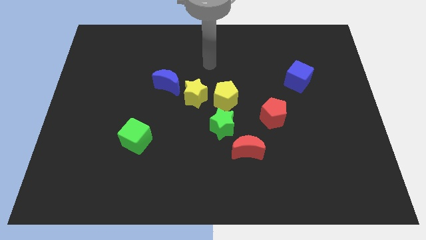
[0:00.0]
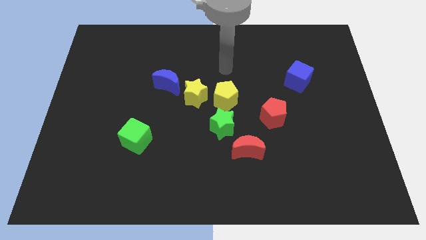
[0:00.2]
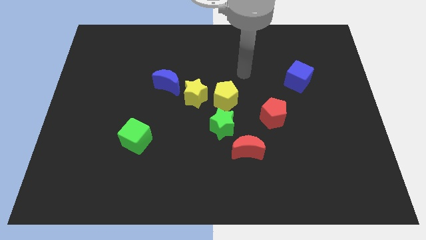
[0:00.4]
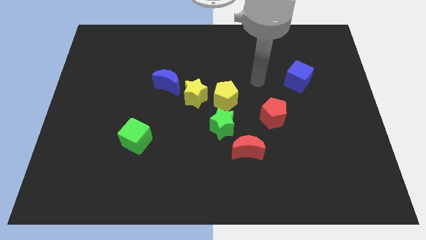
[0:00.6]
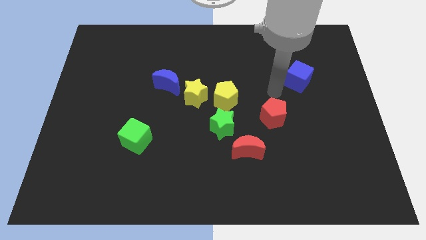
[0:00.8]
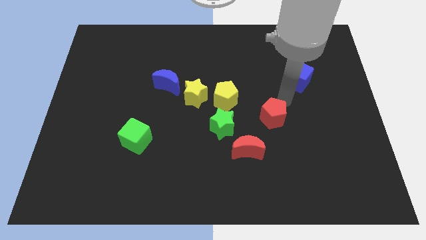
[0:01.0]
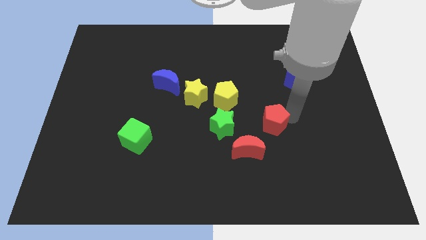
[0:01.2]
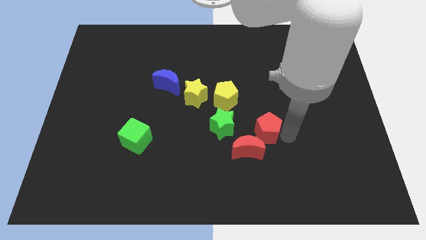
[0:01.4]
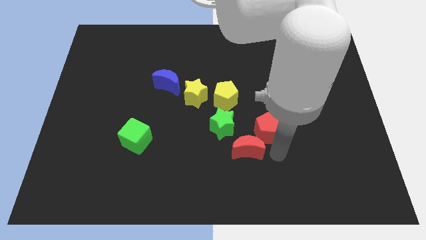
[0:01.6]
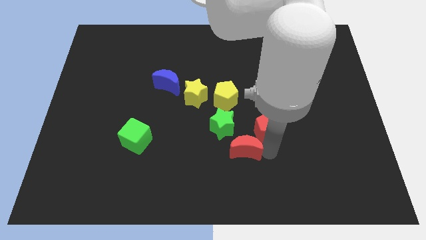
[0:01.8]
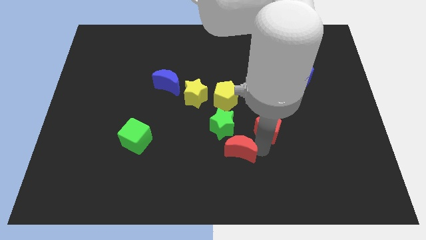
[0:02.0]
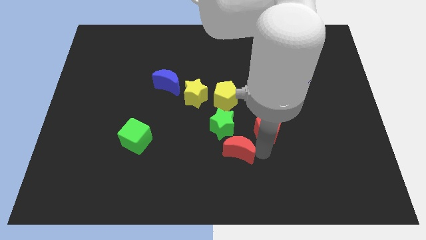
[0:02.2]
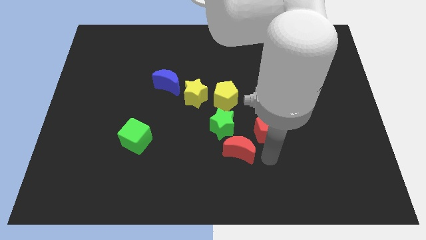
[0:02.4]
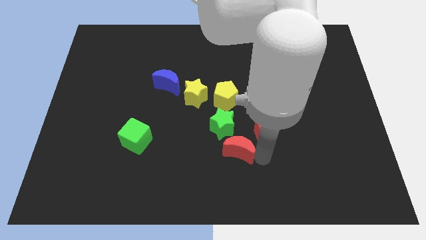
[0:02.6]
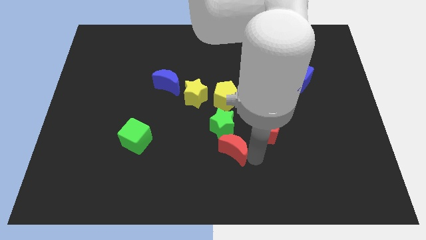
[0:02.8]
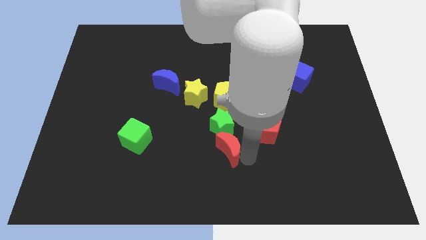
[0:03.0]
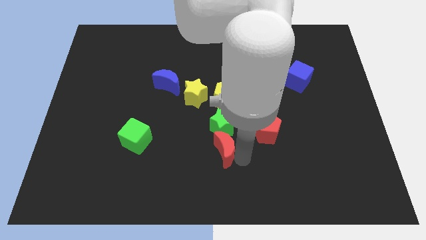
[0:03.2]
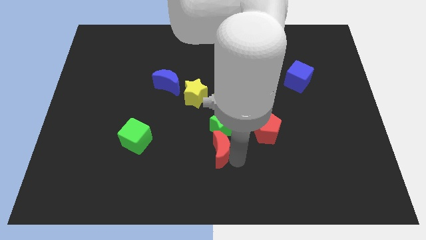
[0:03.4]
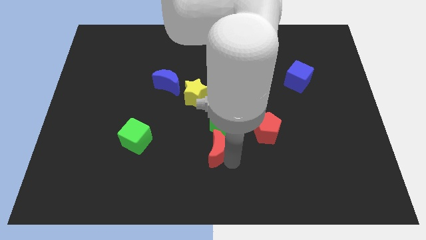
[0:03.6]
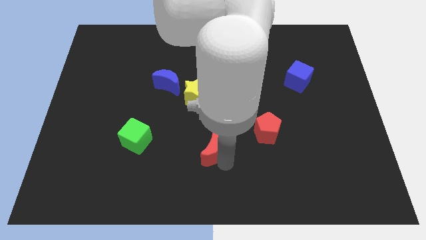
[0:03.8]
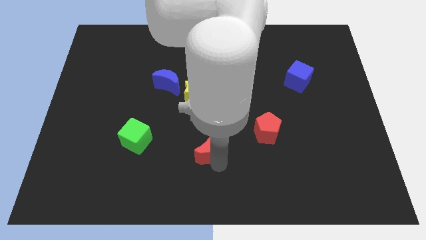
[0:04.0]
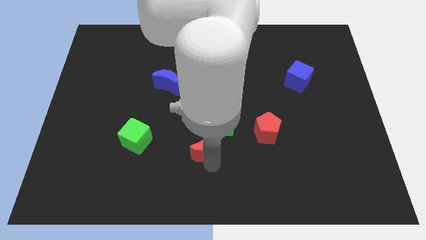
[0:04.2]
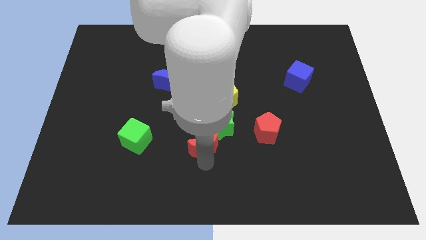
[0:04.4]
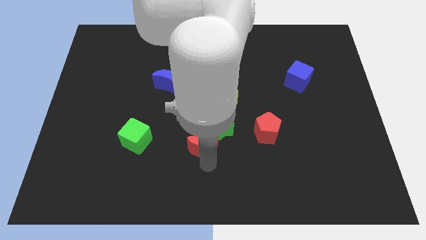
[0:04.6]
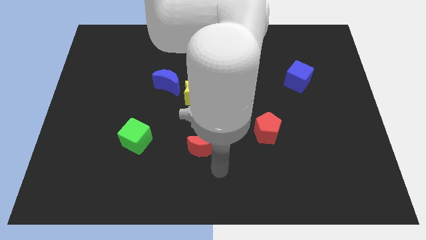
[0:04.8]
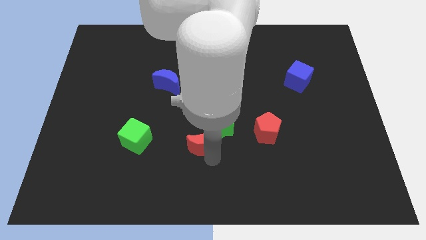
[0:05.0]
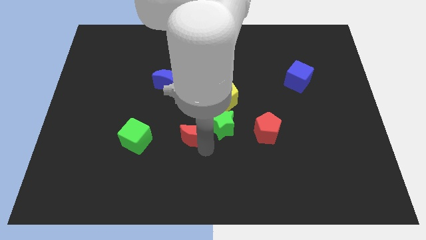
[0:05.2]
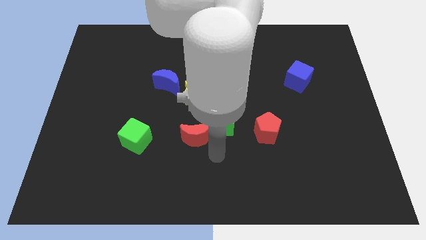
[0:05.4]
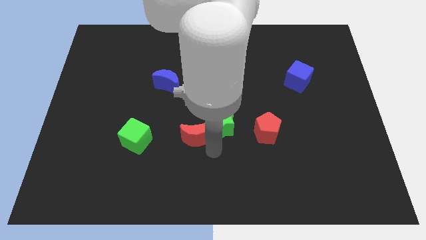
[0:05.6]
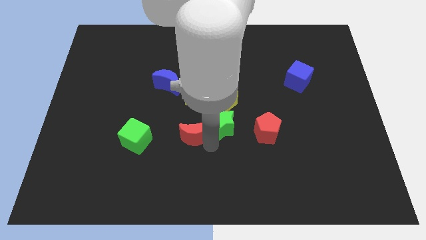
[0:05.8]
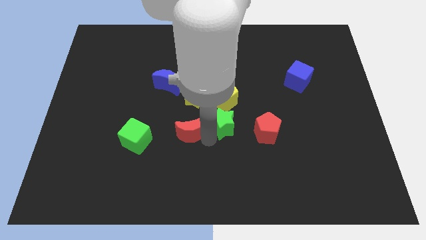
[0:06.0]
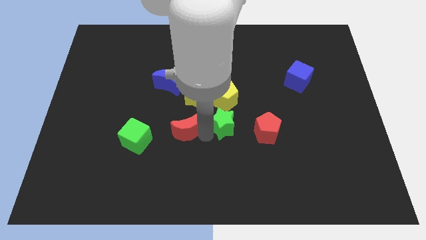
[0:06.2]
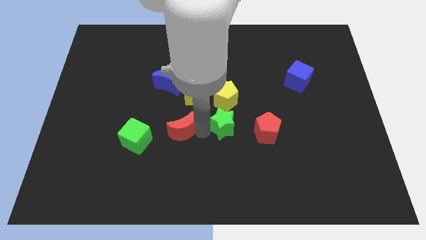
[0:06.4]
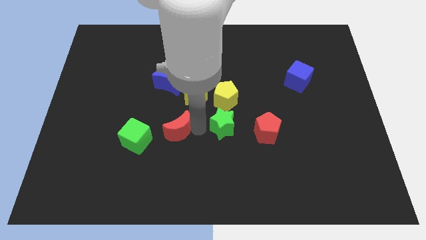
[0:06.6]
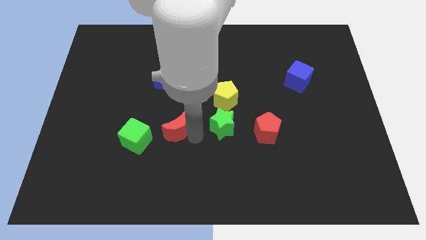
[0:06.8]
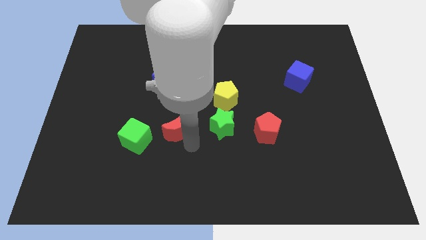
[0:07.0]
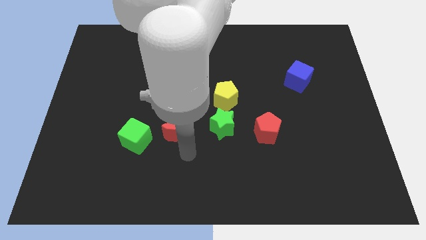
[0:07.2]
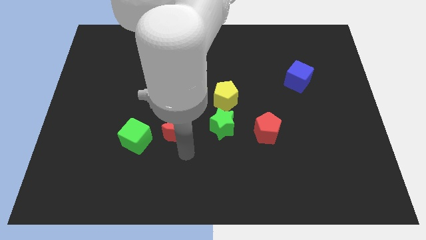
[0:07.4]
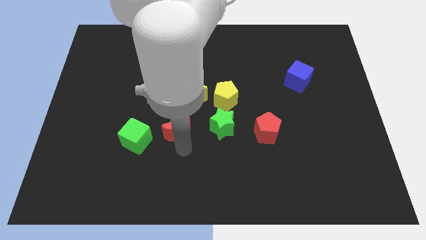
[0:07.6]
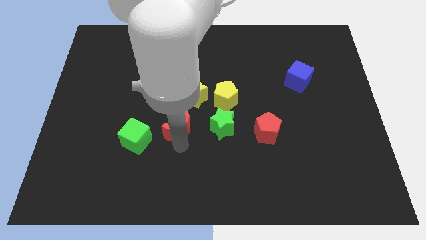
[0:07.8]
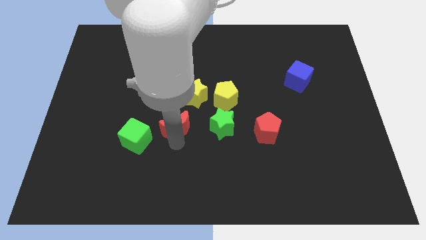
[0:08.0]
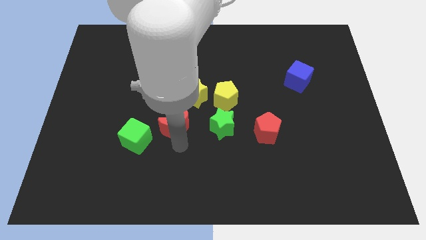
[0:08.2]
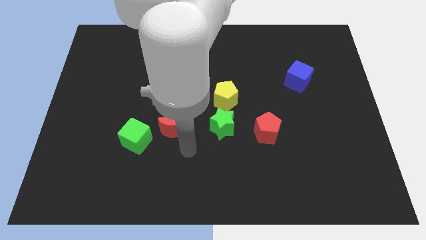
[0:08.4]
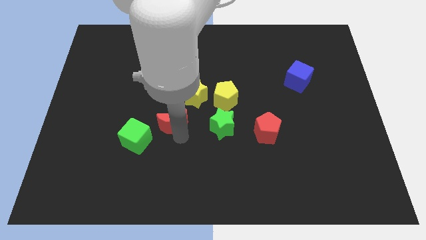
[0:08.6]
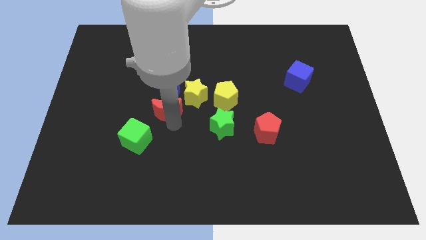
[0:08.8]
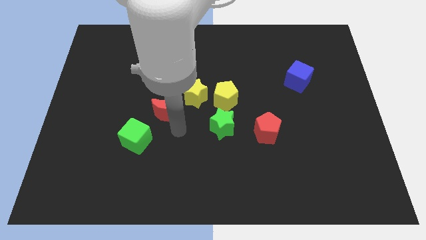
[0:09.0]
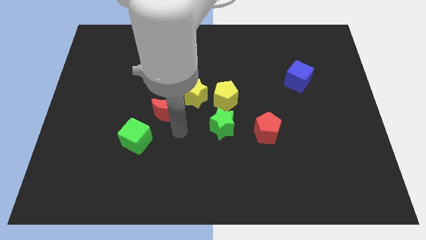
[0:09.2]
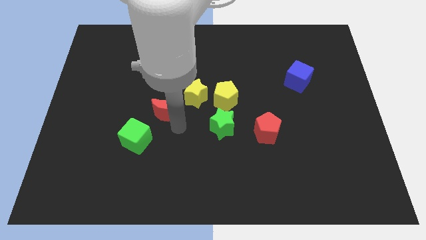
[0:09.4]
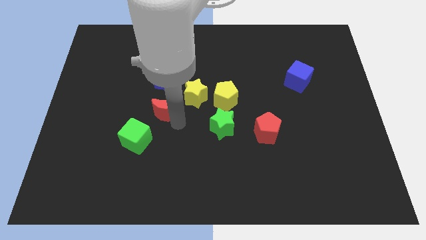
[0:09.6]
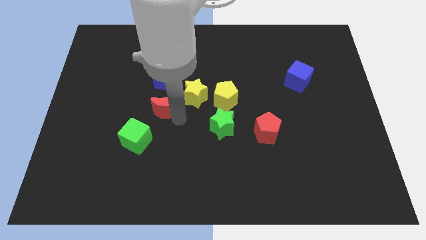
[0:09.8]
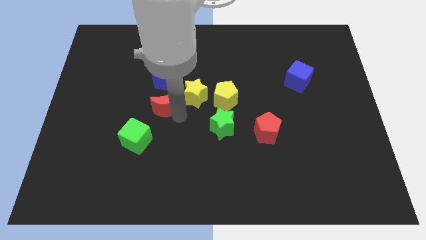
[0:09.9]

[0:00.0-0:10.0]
slide the red moon diagonally upwards and to the left

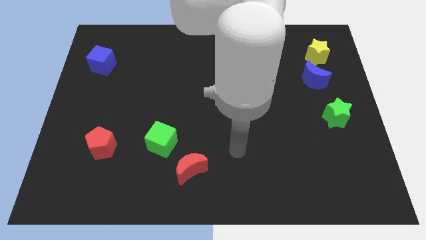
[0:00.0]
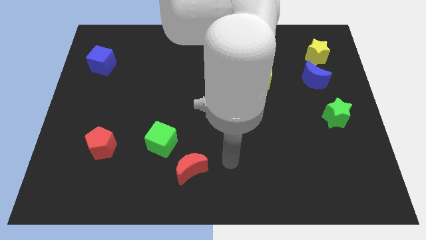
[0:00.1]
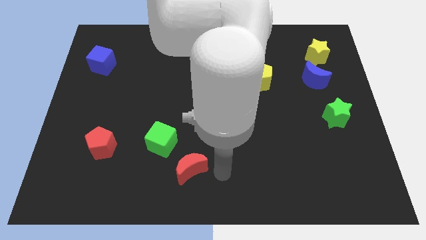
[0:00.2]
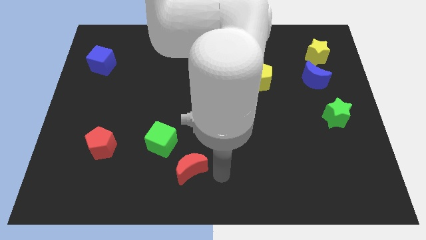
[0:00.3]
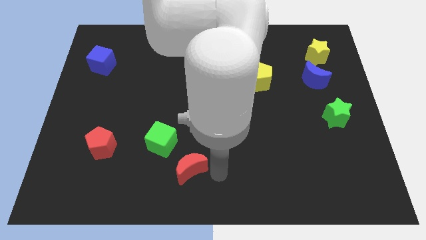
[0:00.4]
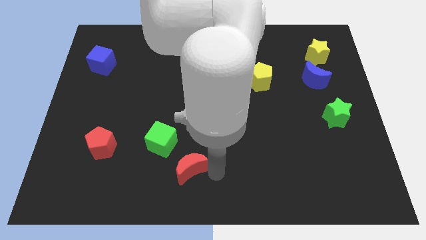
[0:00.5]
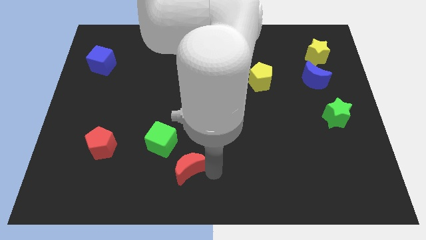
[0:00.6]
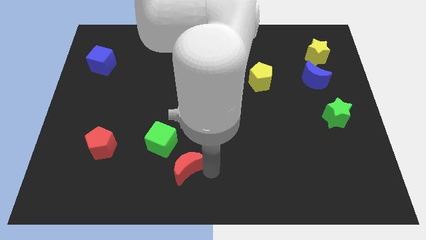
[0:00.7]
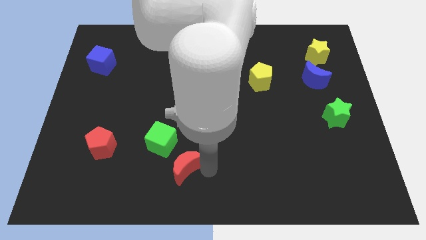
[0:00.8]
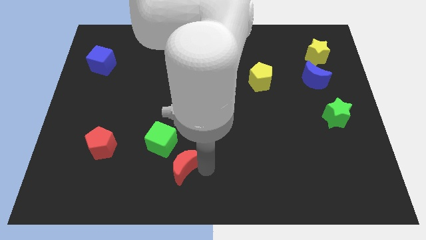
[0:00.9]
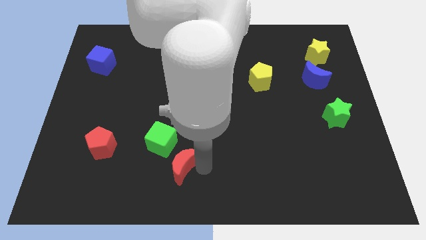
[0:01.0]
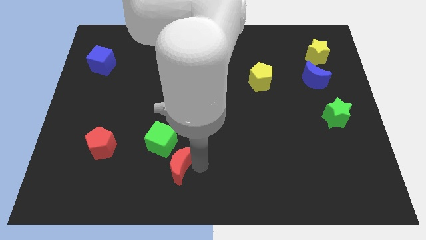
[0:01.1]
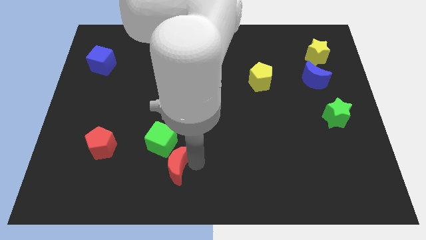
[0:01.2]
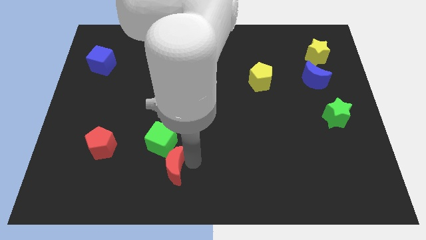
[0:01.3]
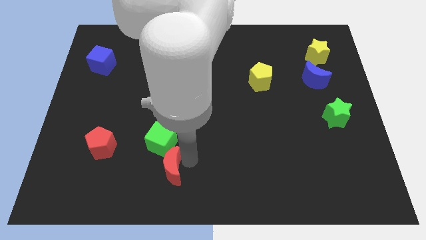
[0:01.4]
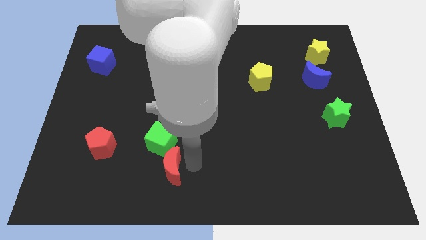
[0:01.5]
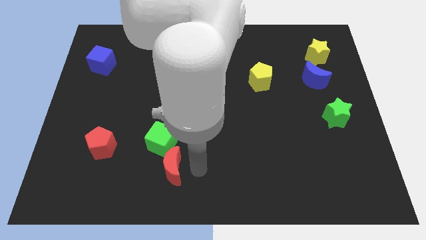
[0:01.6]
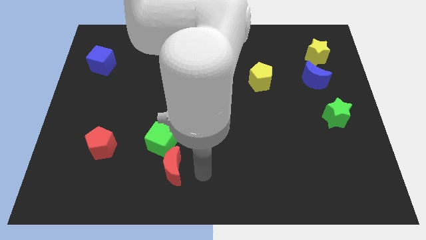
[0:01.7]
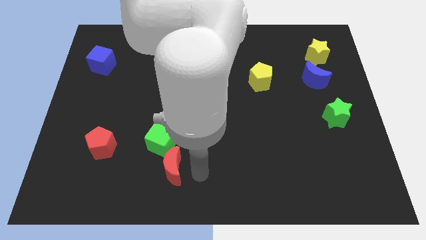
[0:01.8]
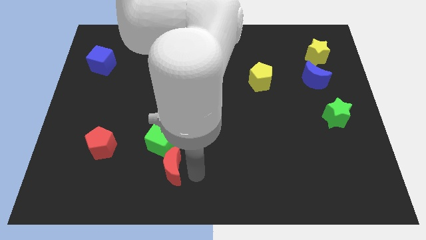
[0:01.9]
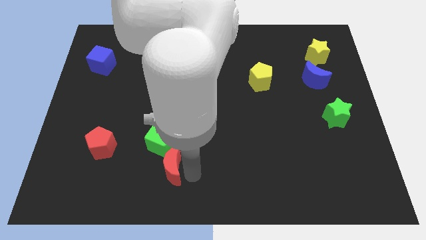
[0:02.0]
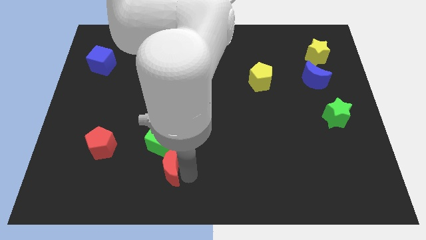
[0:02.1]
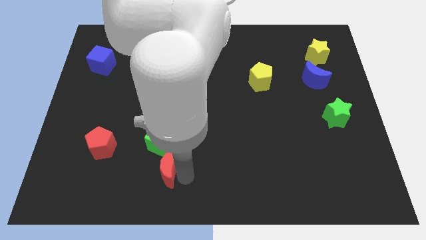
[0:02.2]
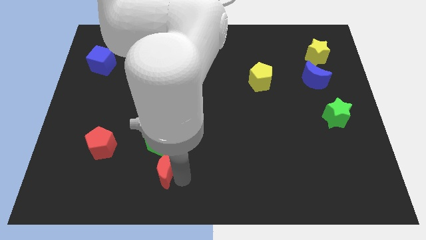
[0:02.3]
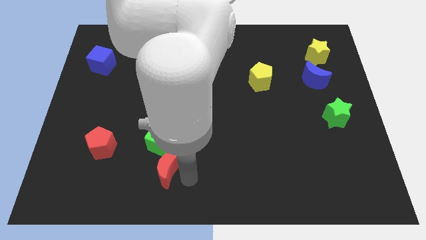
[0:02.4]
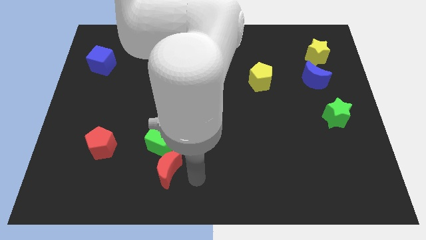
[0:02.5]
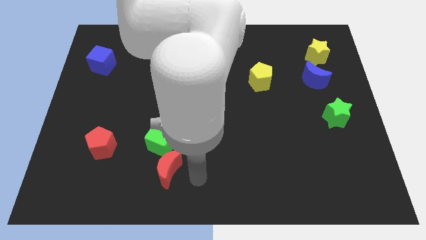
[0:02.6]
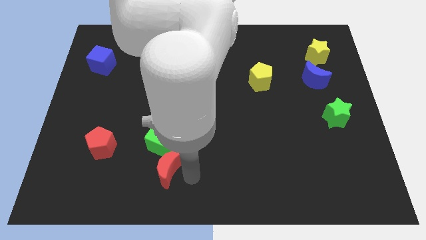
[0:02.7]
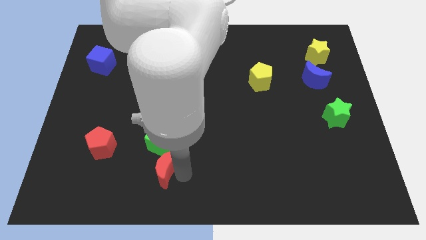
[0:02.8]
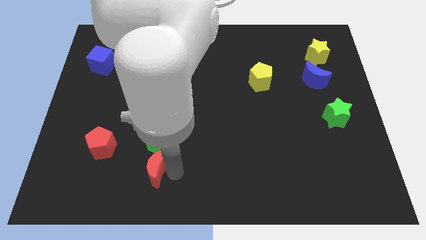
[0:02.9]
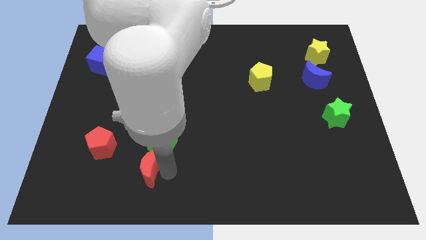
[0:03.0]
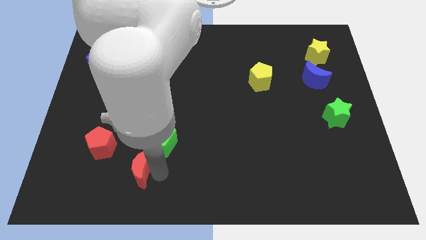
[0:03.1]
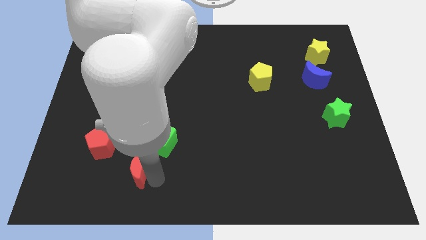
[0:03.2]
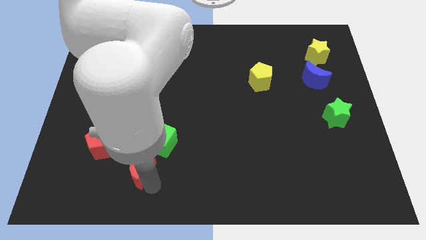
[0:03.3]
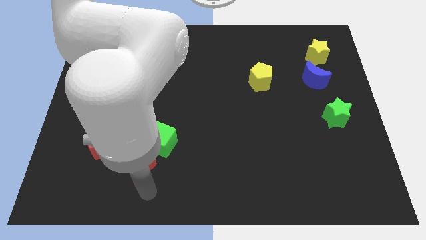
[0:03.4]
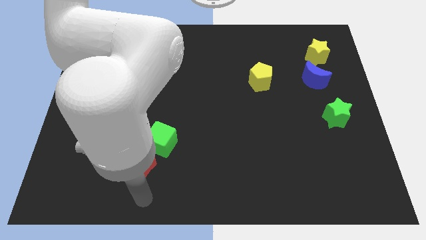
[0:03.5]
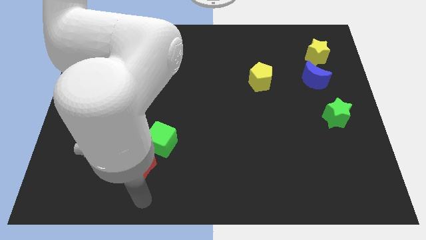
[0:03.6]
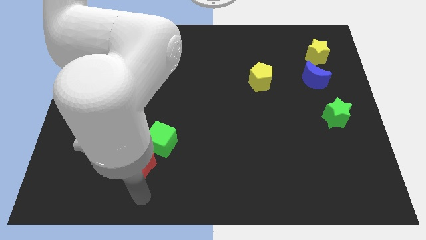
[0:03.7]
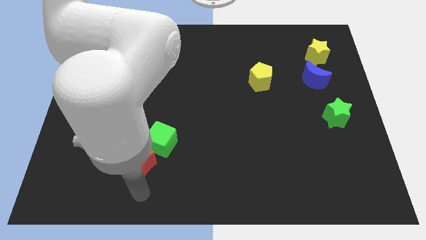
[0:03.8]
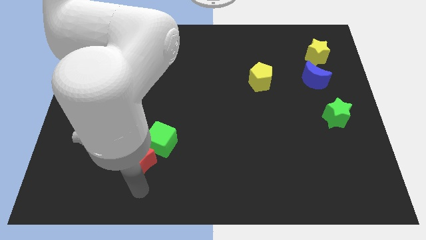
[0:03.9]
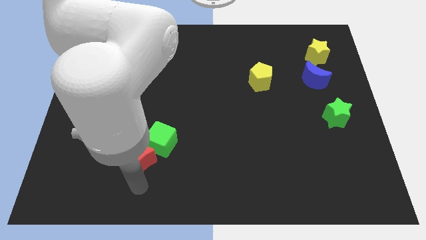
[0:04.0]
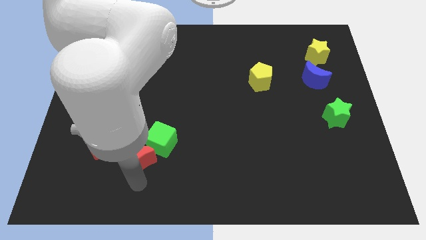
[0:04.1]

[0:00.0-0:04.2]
slightly move the red moon upwards and left diagonally
